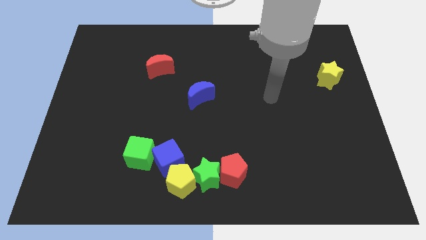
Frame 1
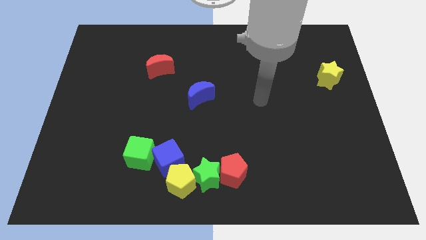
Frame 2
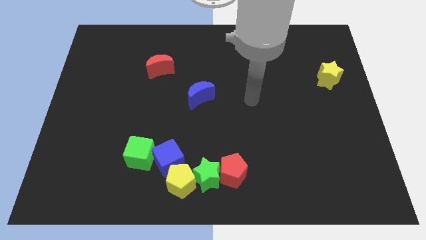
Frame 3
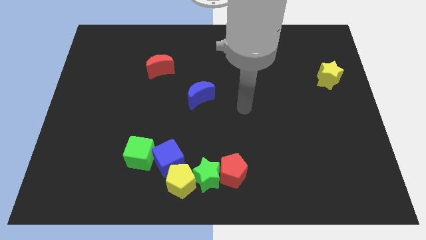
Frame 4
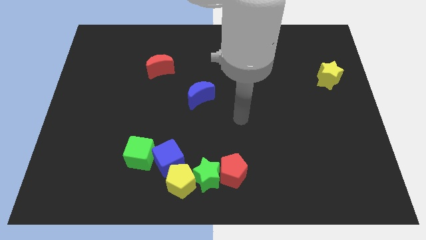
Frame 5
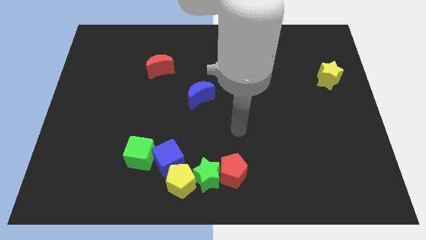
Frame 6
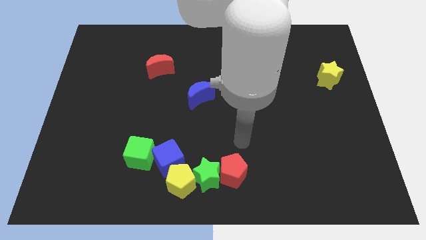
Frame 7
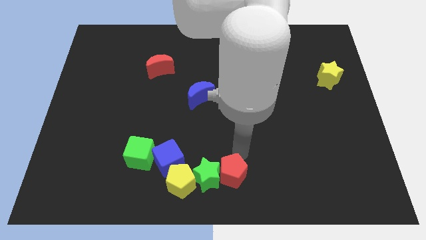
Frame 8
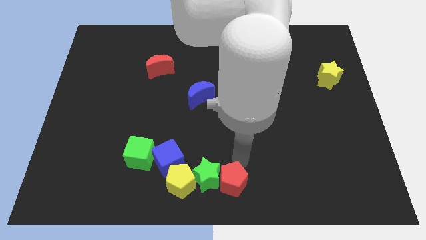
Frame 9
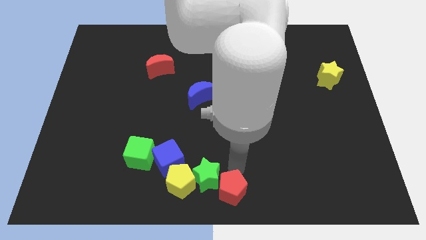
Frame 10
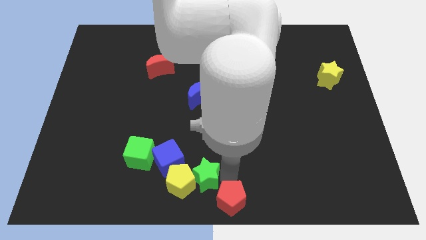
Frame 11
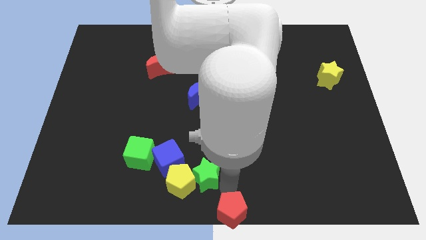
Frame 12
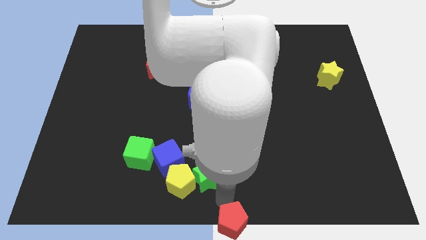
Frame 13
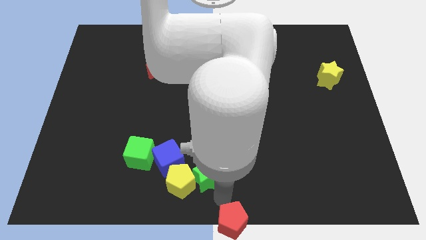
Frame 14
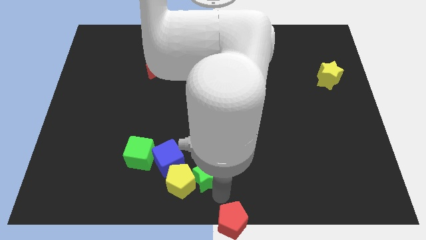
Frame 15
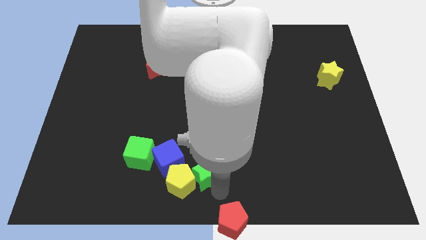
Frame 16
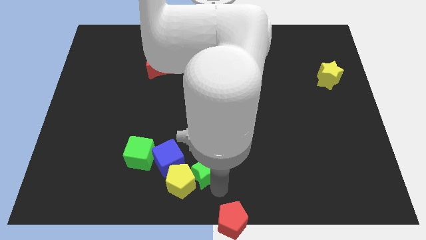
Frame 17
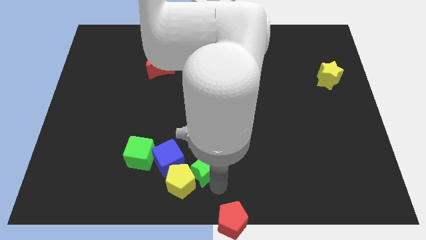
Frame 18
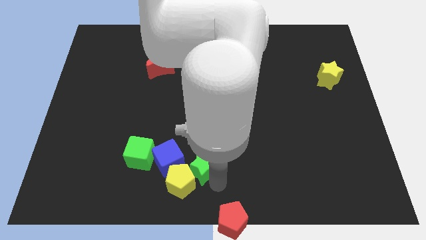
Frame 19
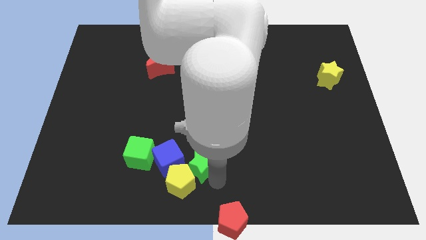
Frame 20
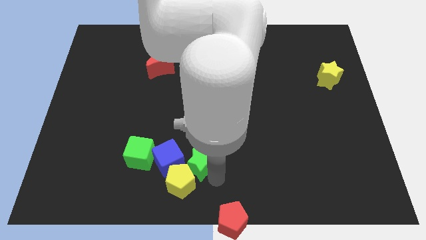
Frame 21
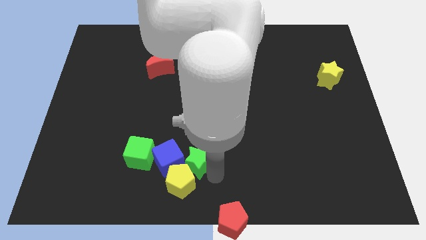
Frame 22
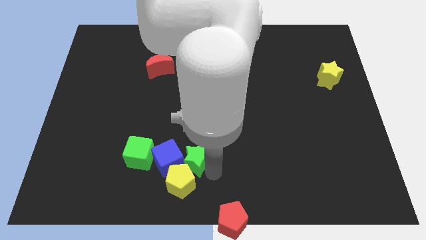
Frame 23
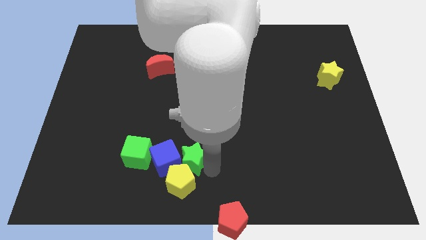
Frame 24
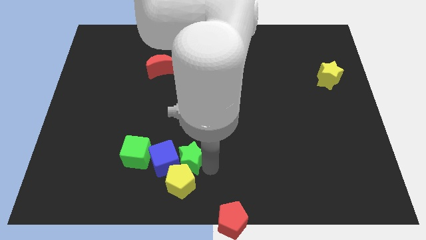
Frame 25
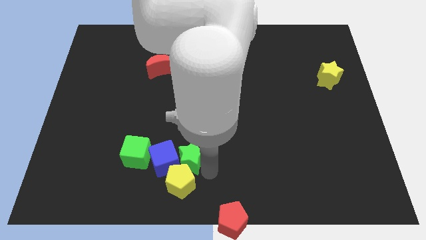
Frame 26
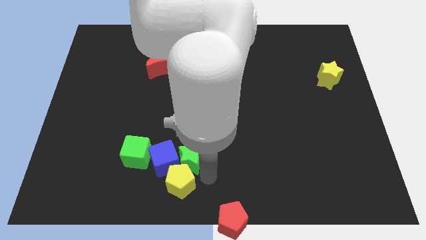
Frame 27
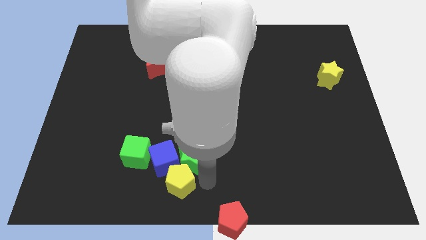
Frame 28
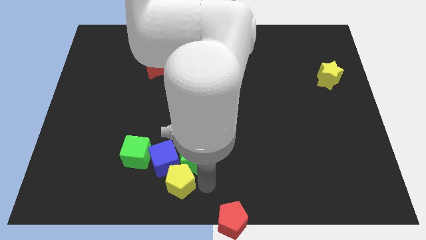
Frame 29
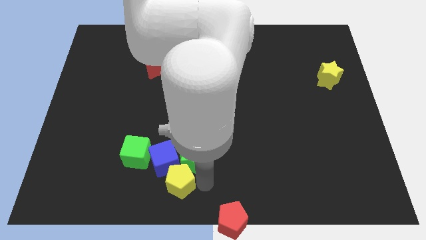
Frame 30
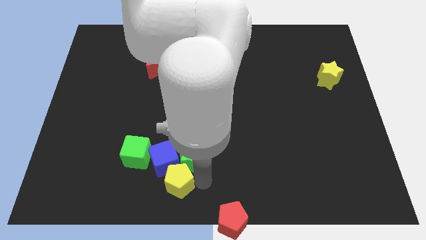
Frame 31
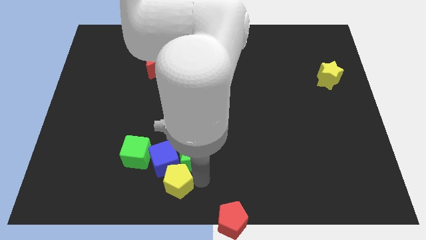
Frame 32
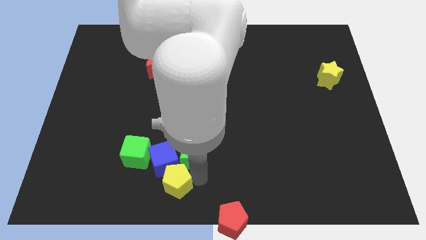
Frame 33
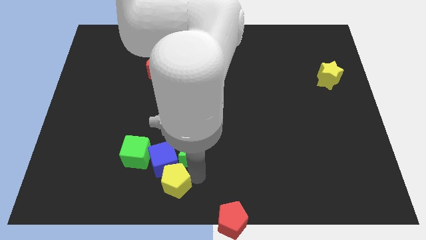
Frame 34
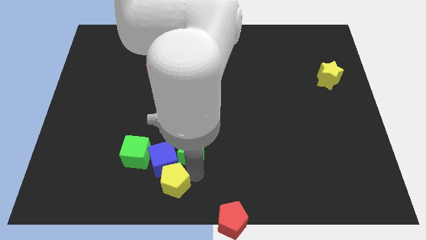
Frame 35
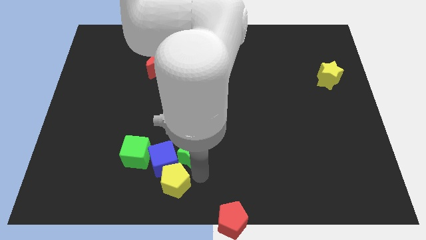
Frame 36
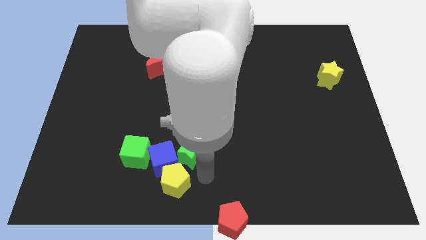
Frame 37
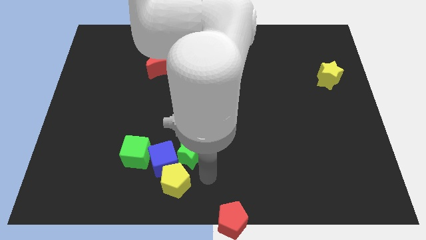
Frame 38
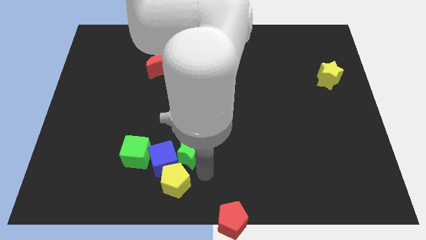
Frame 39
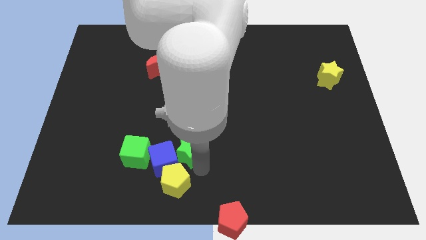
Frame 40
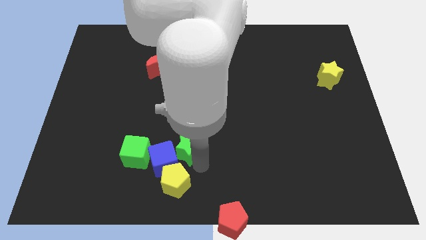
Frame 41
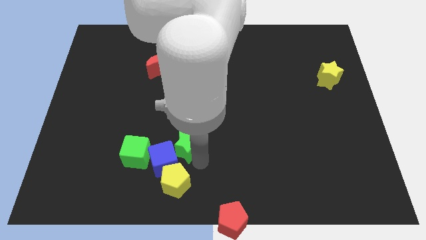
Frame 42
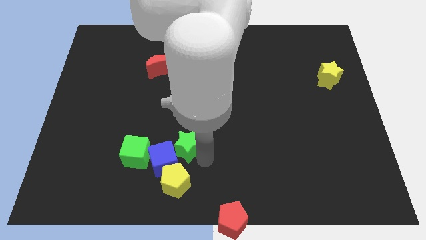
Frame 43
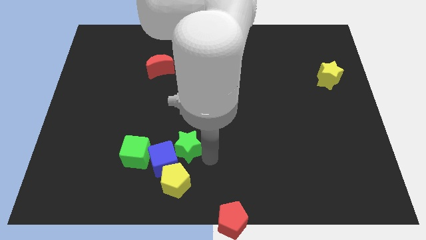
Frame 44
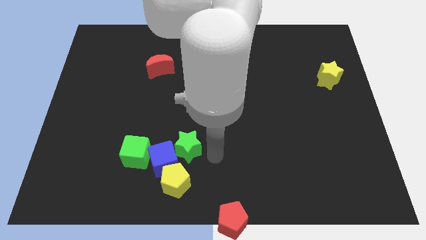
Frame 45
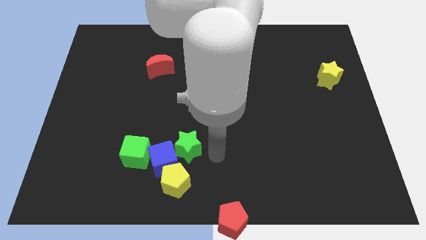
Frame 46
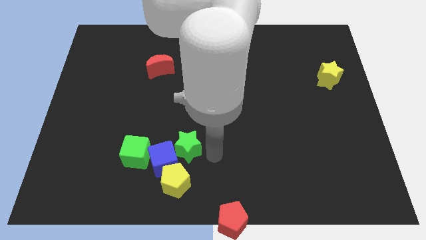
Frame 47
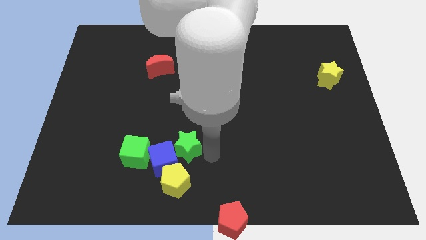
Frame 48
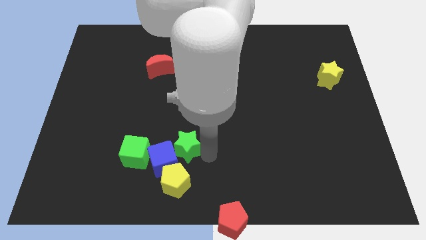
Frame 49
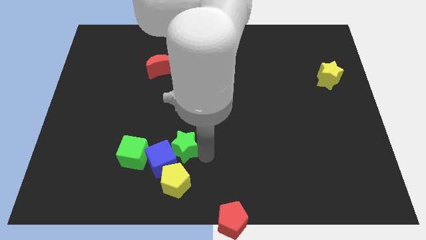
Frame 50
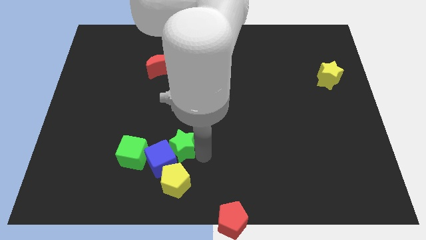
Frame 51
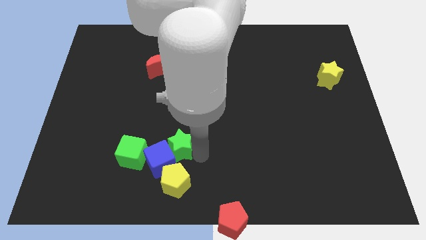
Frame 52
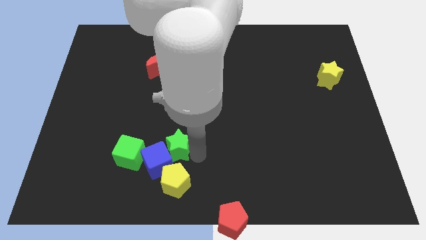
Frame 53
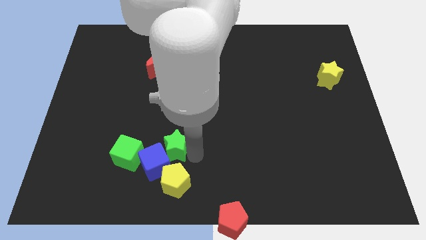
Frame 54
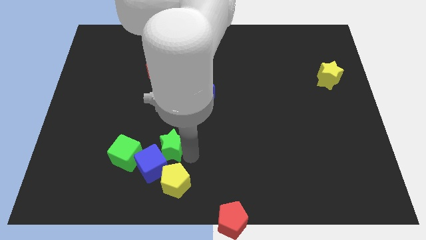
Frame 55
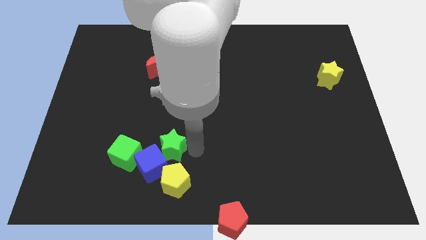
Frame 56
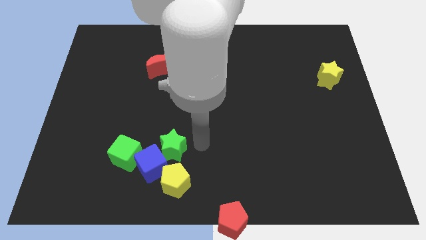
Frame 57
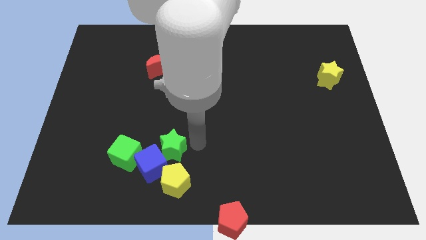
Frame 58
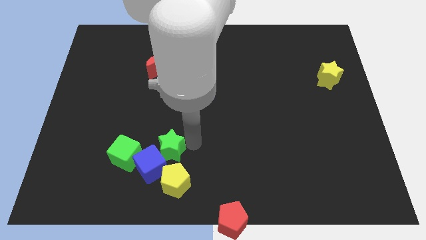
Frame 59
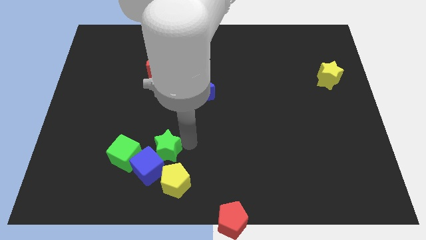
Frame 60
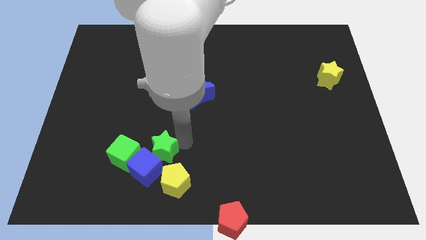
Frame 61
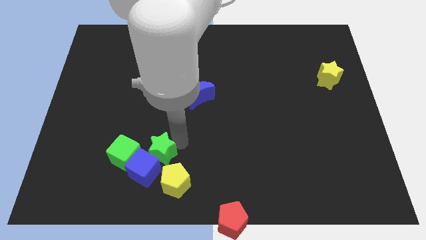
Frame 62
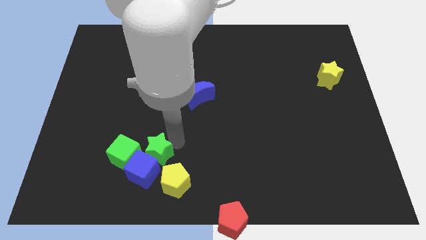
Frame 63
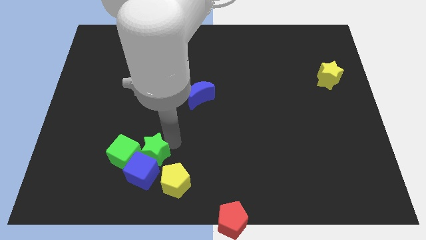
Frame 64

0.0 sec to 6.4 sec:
put the green star towards the green cube

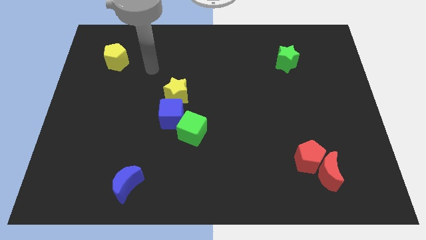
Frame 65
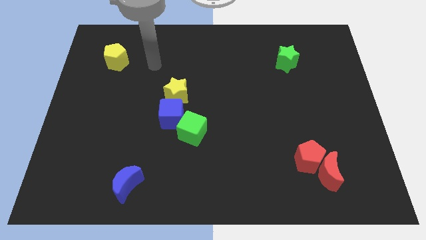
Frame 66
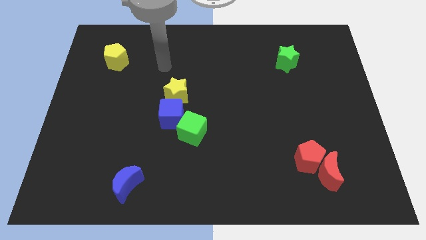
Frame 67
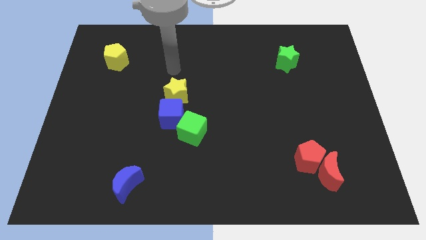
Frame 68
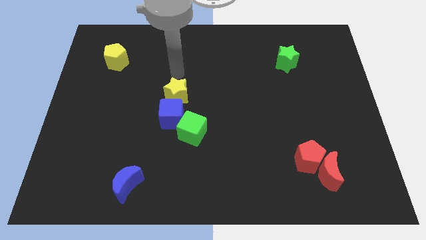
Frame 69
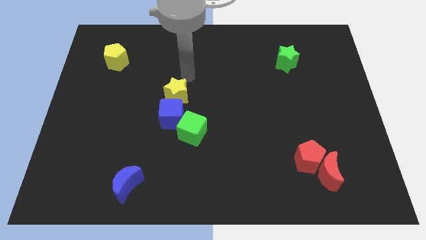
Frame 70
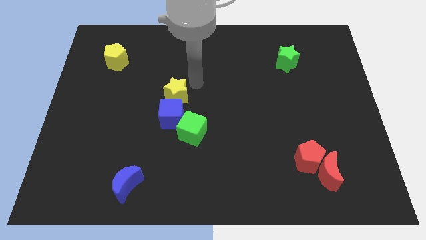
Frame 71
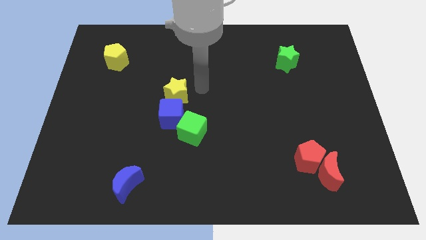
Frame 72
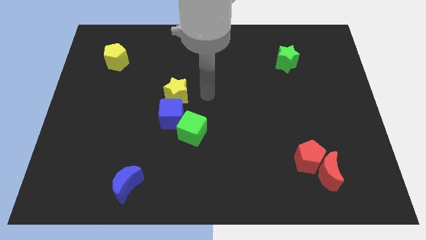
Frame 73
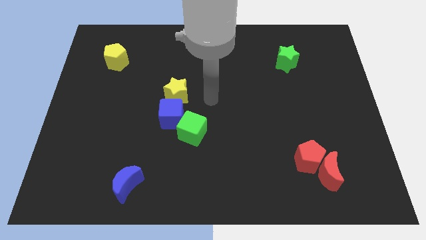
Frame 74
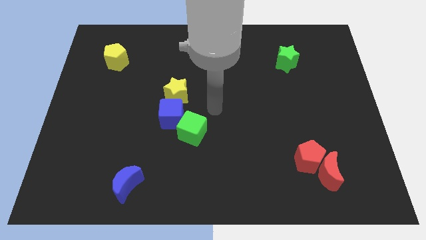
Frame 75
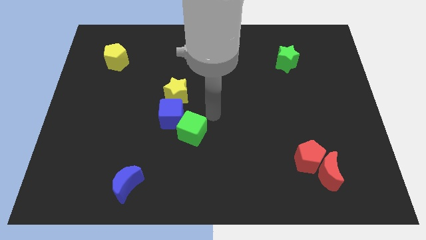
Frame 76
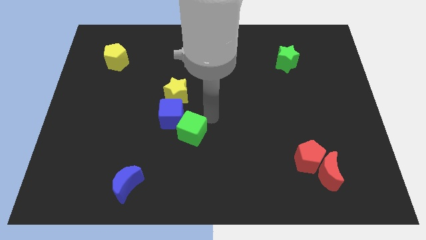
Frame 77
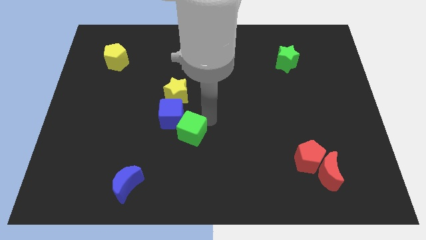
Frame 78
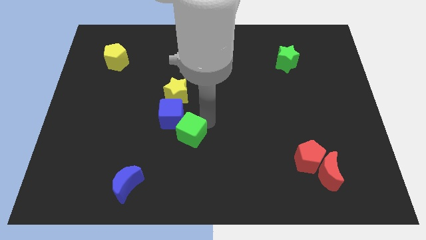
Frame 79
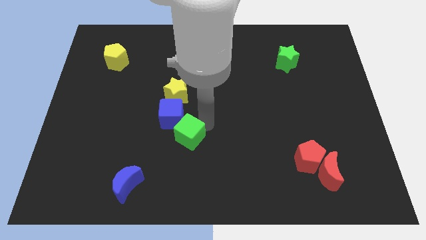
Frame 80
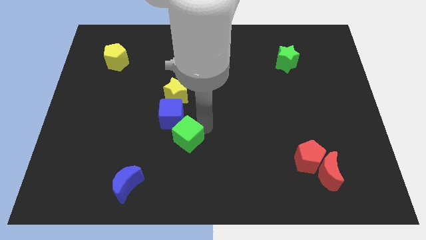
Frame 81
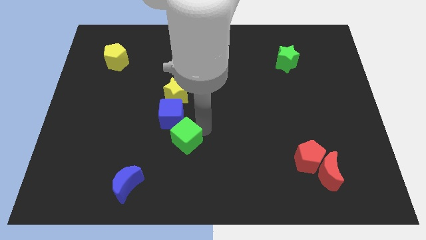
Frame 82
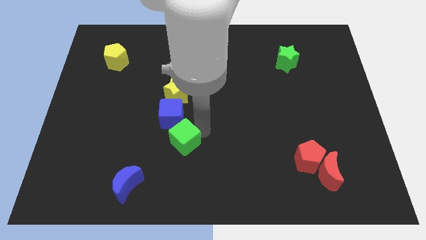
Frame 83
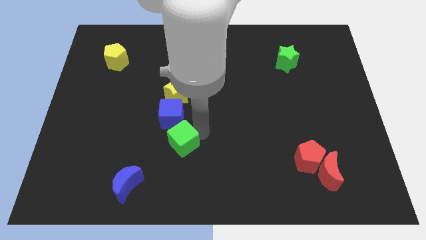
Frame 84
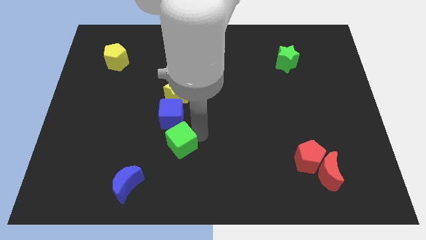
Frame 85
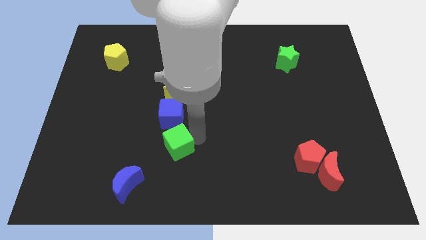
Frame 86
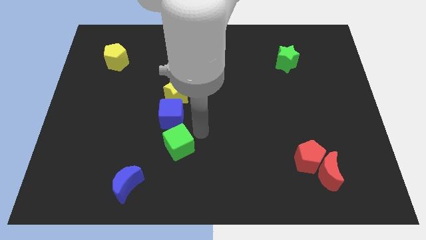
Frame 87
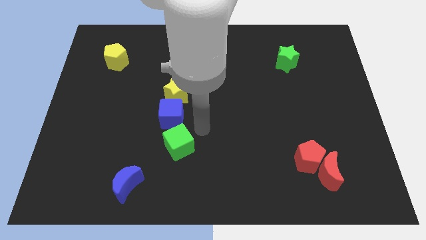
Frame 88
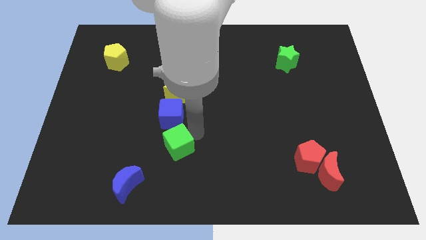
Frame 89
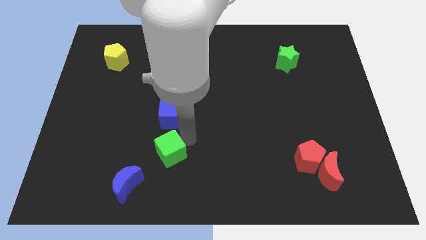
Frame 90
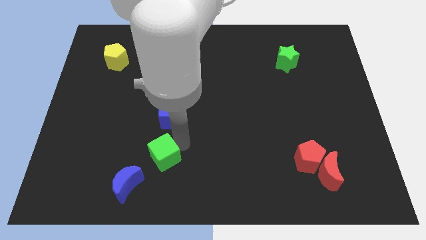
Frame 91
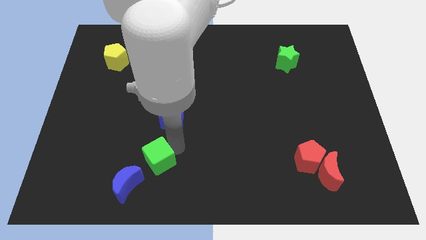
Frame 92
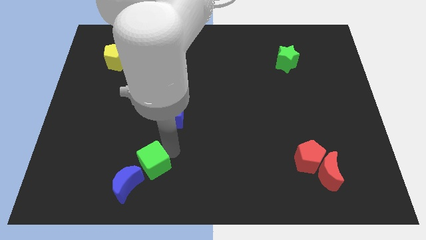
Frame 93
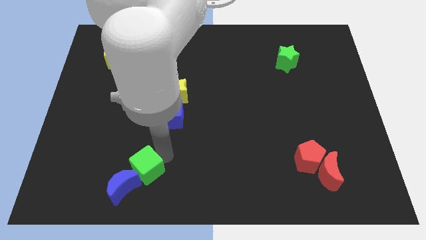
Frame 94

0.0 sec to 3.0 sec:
slide the green cube towards the blue moon
